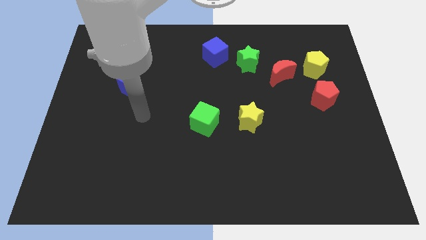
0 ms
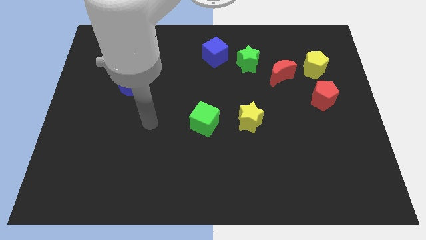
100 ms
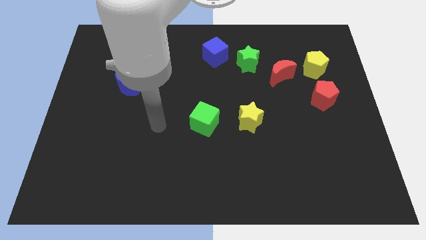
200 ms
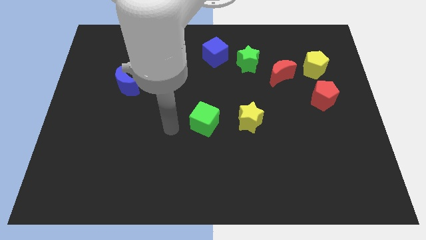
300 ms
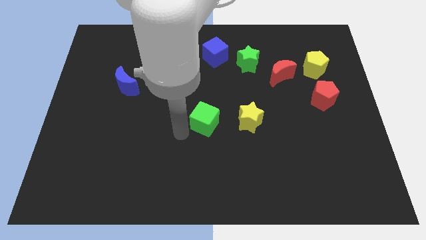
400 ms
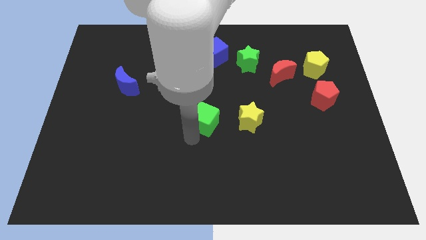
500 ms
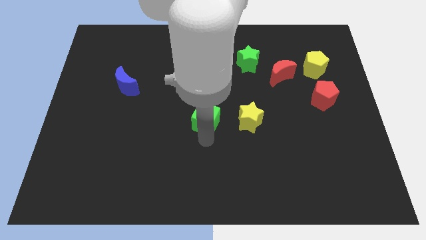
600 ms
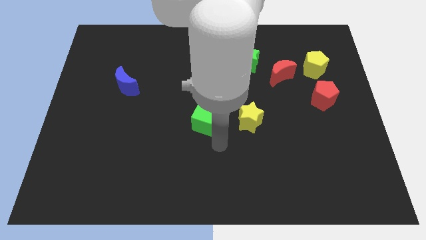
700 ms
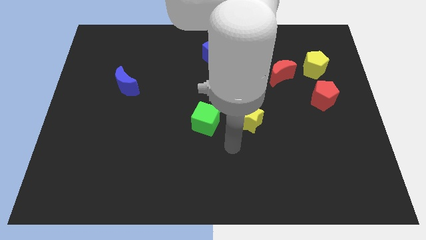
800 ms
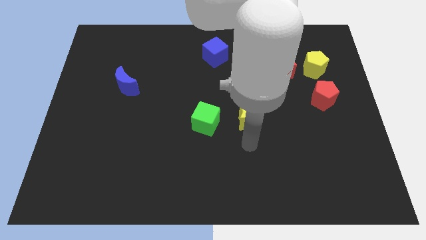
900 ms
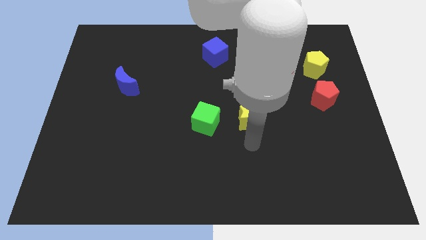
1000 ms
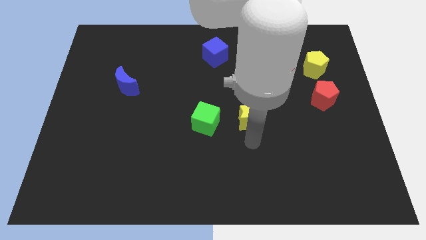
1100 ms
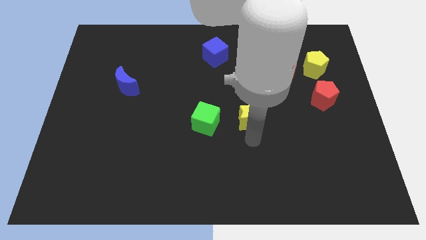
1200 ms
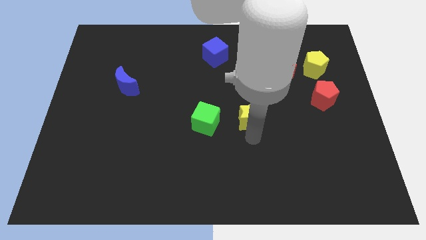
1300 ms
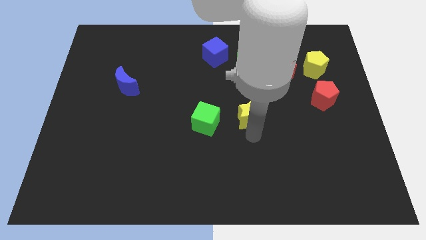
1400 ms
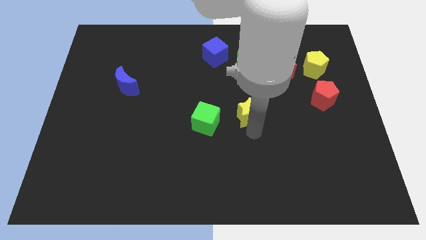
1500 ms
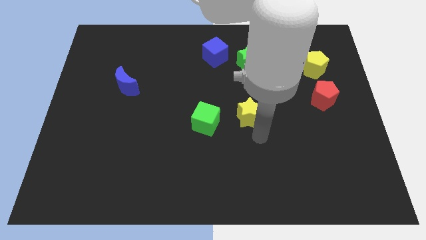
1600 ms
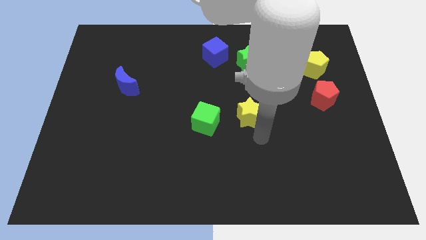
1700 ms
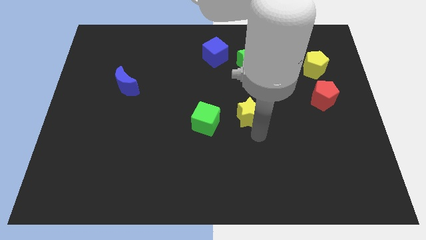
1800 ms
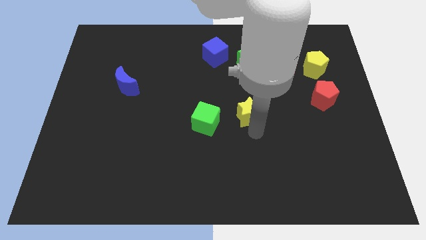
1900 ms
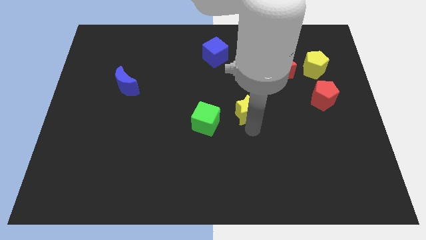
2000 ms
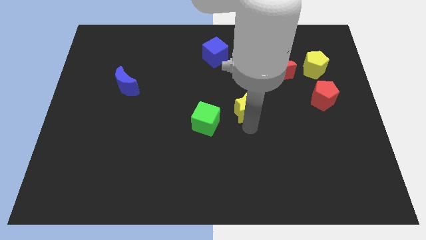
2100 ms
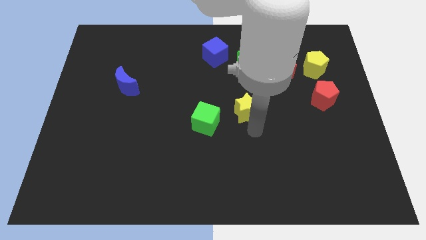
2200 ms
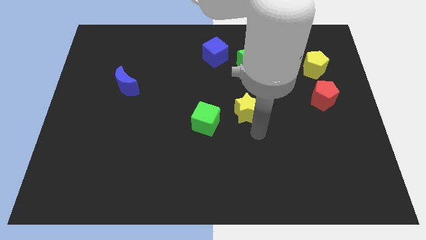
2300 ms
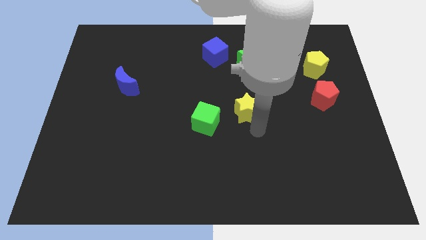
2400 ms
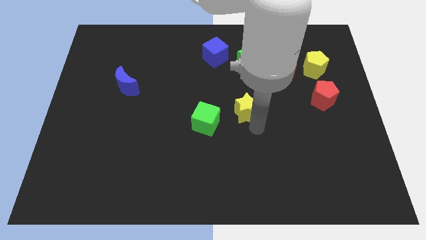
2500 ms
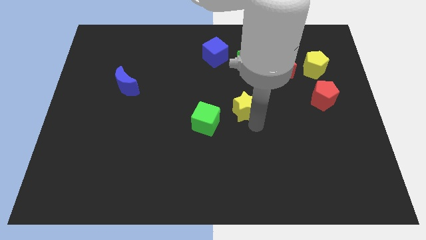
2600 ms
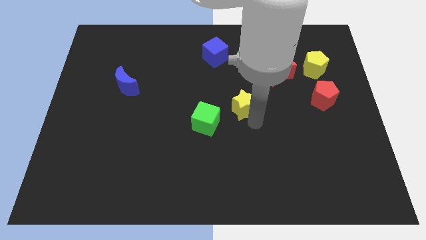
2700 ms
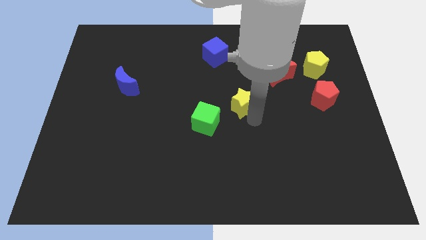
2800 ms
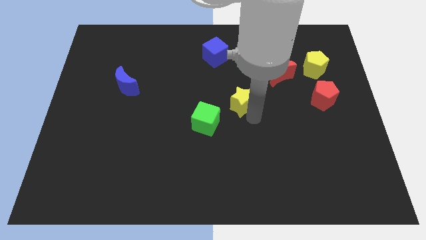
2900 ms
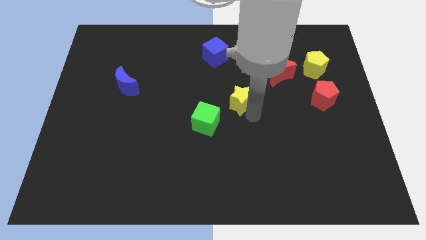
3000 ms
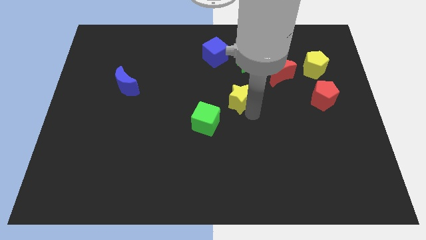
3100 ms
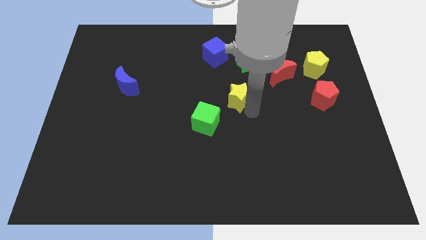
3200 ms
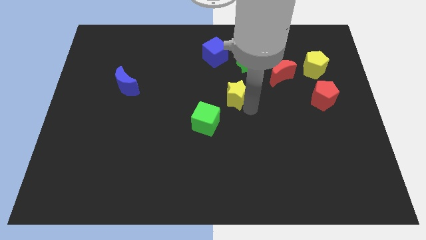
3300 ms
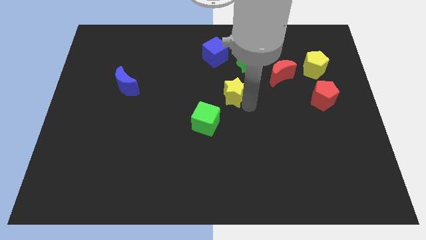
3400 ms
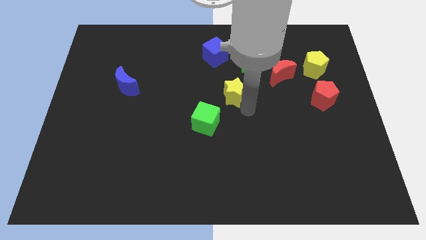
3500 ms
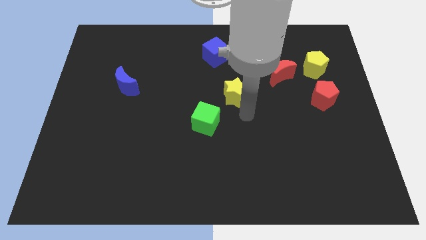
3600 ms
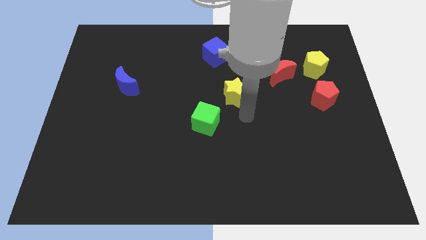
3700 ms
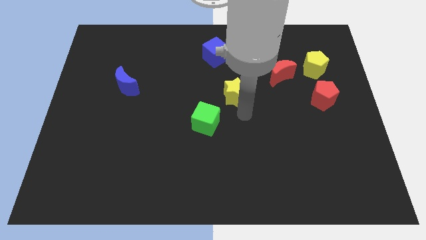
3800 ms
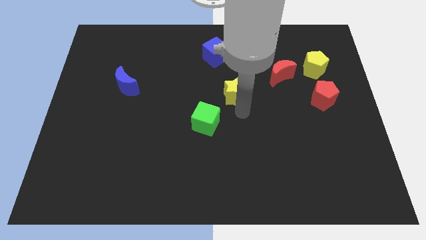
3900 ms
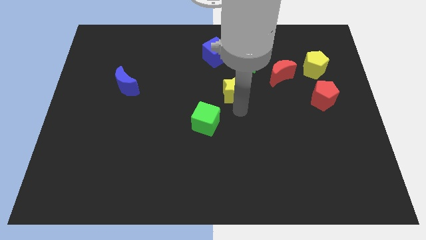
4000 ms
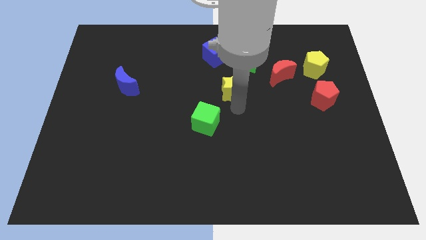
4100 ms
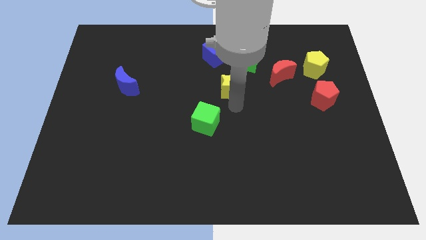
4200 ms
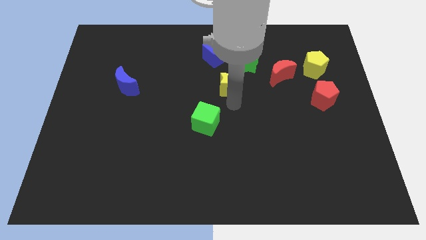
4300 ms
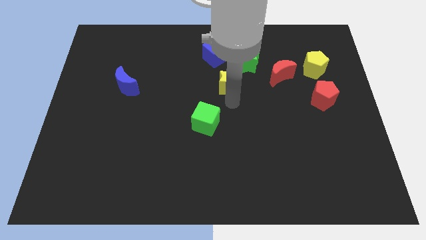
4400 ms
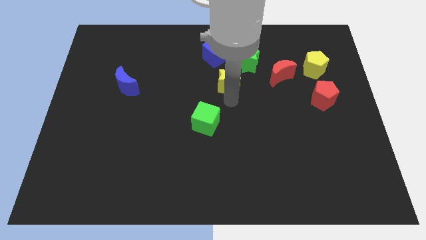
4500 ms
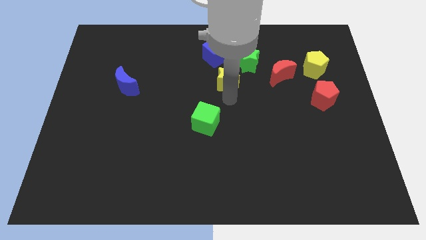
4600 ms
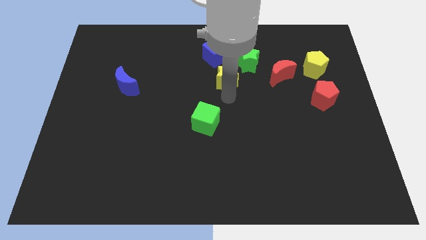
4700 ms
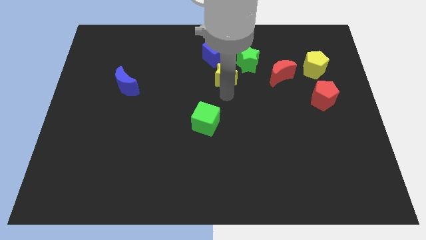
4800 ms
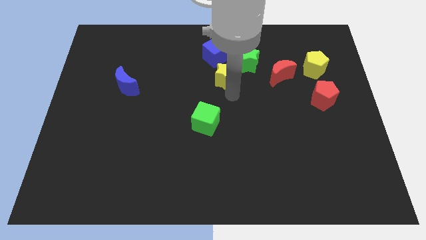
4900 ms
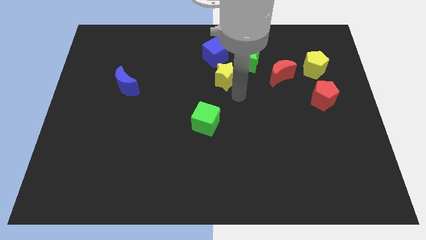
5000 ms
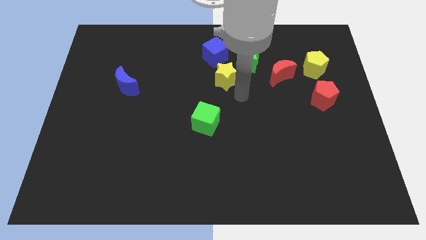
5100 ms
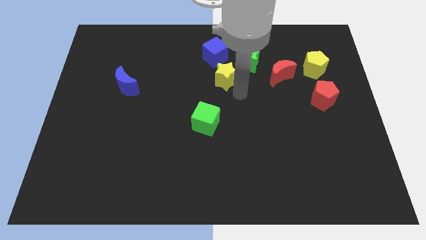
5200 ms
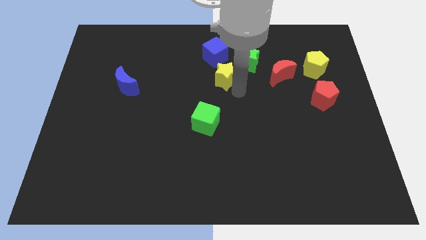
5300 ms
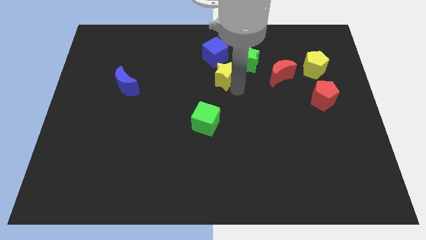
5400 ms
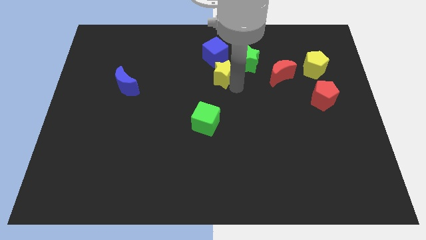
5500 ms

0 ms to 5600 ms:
push the yellow star to the left side of the green star

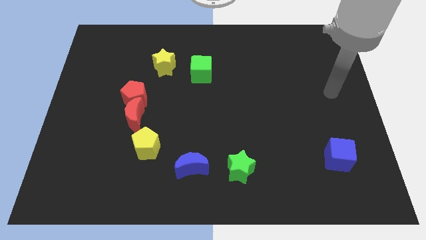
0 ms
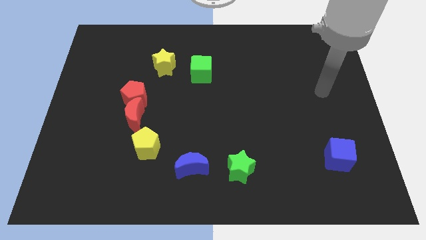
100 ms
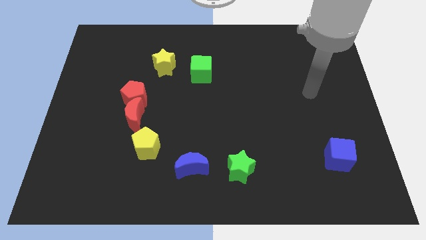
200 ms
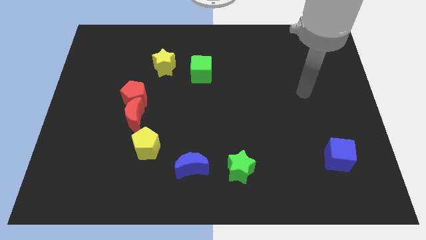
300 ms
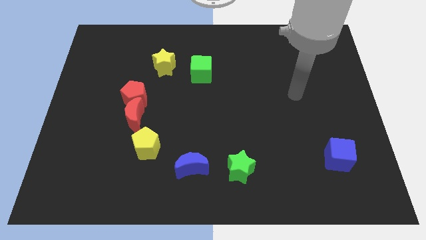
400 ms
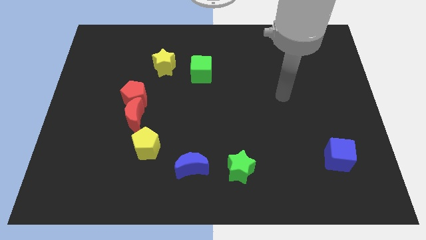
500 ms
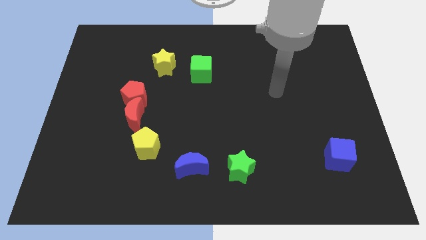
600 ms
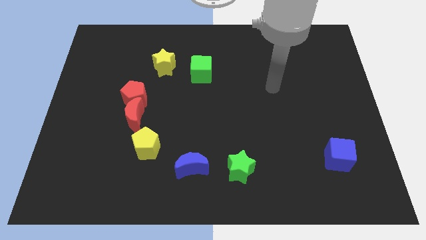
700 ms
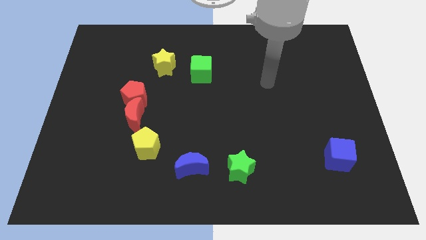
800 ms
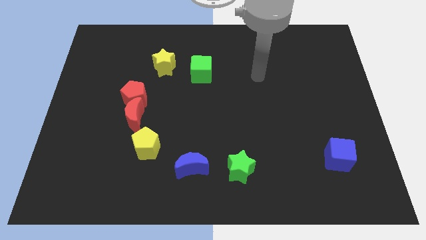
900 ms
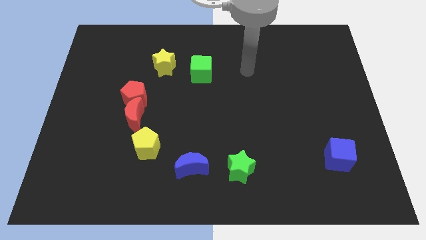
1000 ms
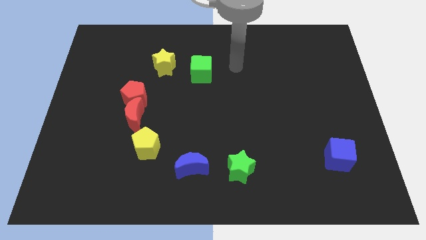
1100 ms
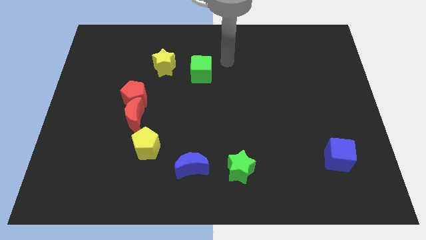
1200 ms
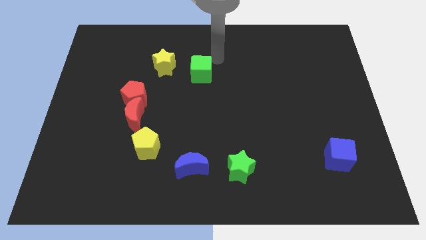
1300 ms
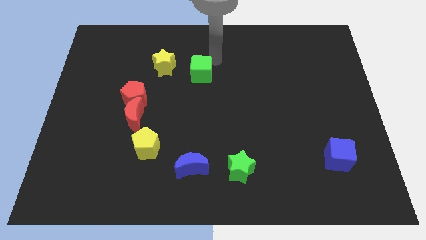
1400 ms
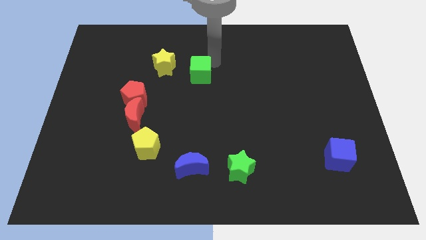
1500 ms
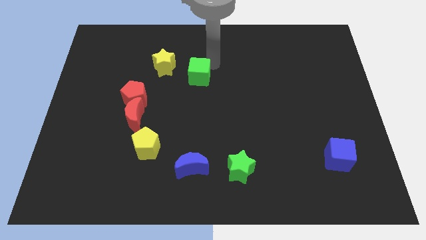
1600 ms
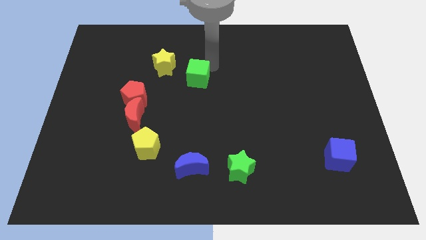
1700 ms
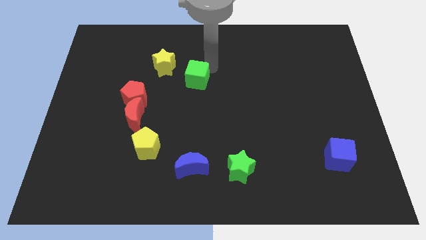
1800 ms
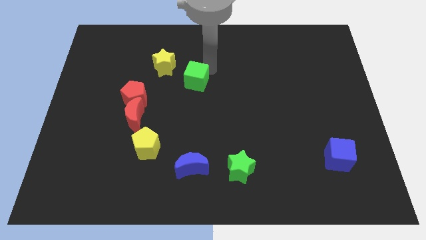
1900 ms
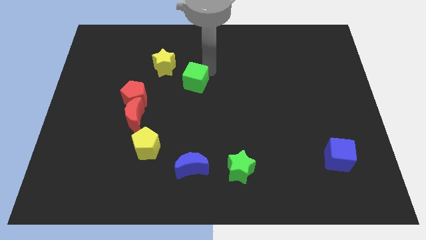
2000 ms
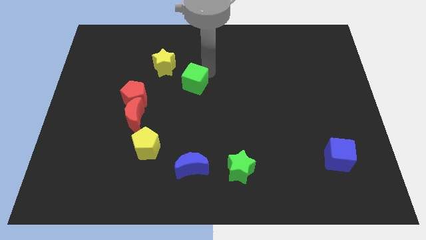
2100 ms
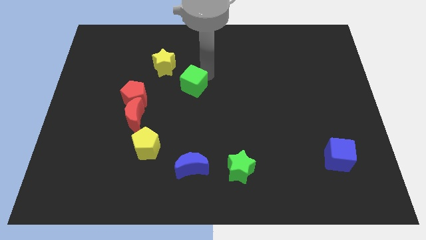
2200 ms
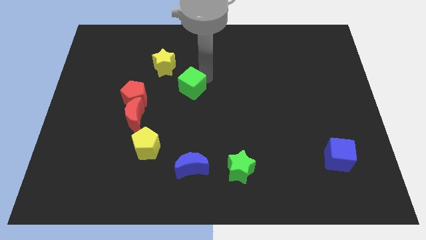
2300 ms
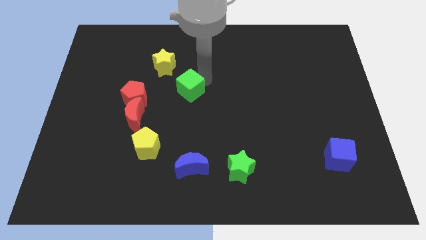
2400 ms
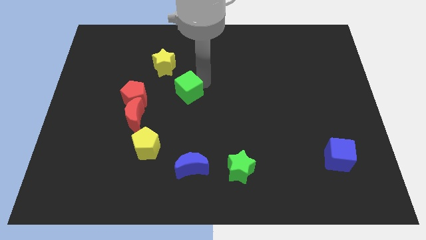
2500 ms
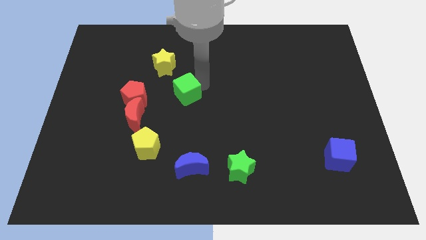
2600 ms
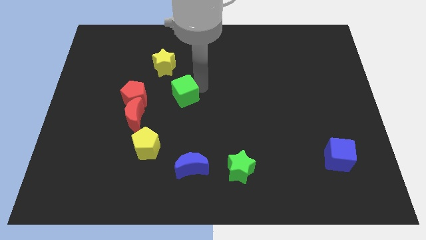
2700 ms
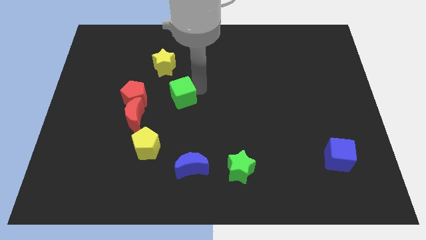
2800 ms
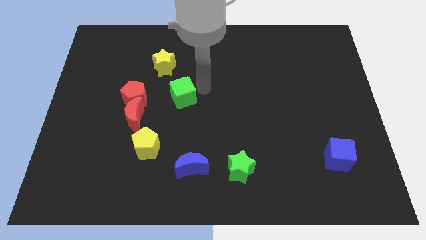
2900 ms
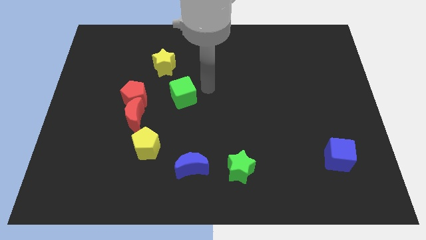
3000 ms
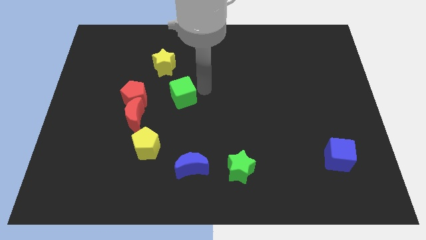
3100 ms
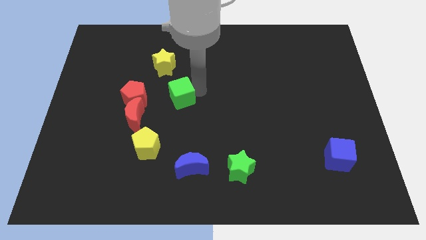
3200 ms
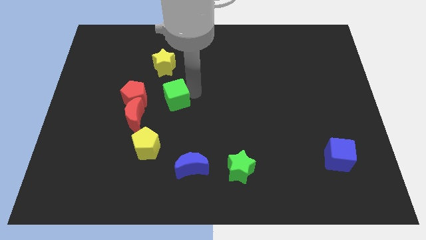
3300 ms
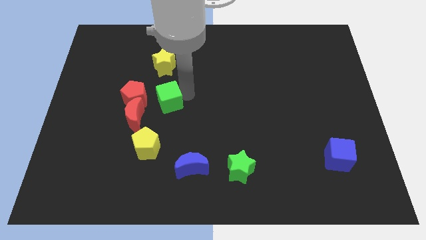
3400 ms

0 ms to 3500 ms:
slide the green cube to the top of the yellow pentagon
